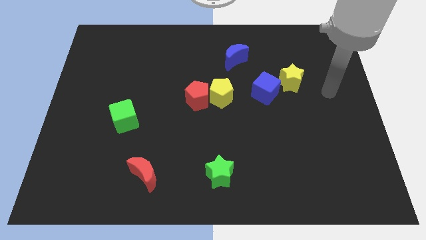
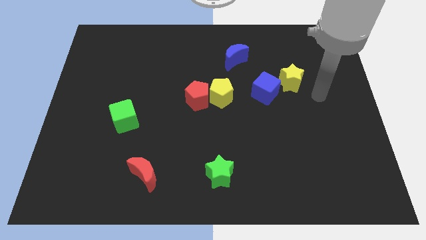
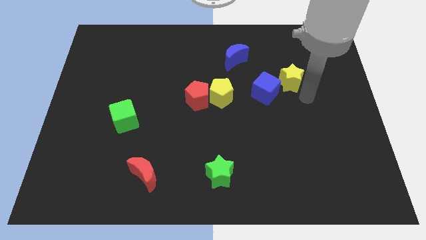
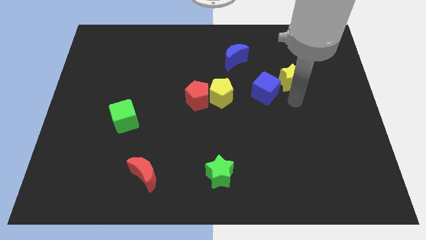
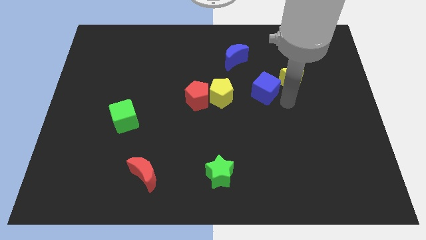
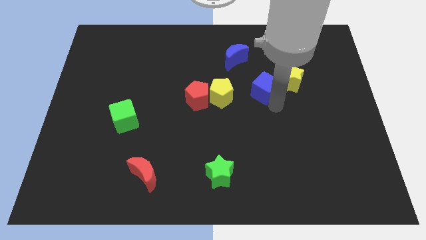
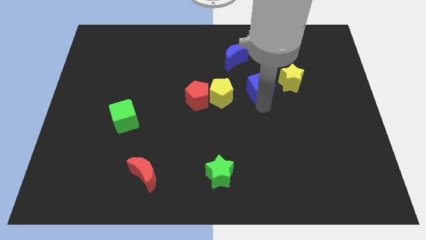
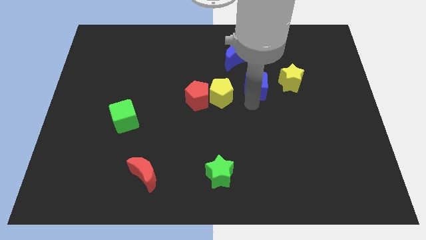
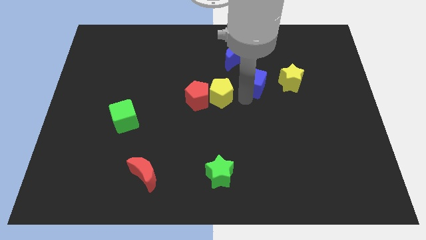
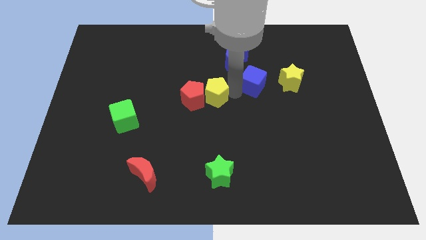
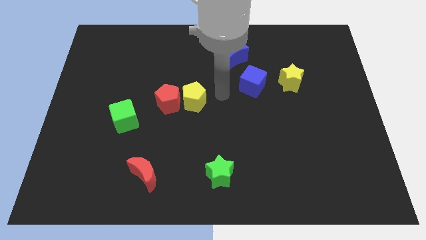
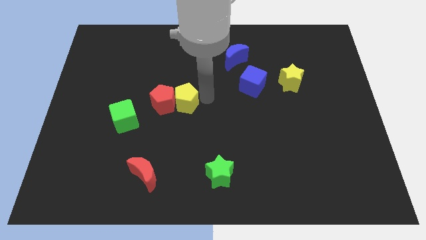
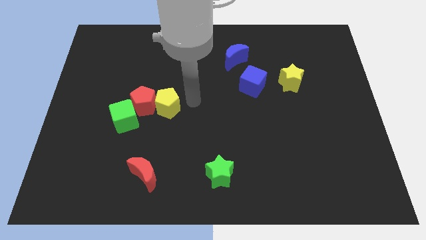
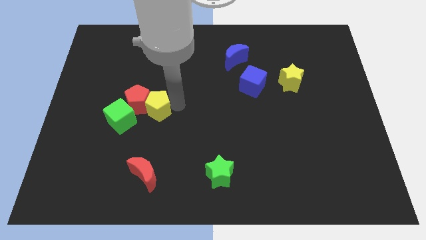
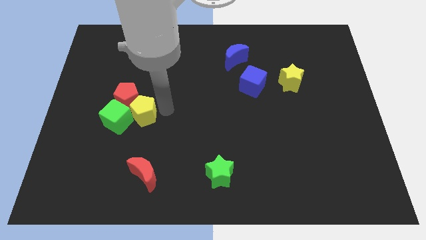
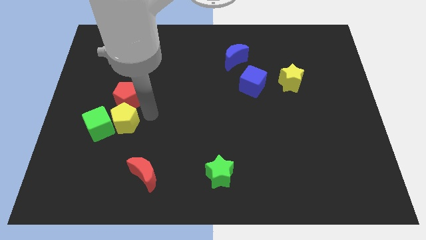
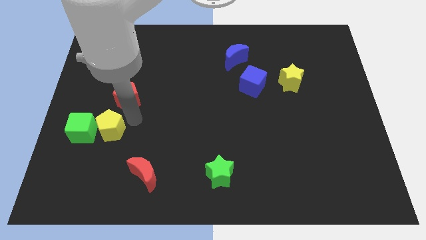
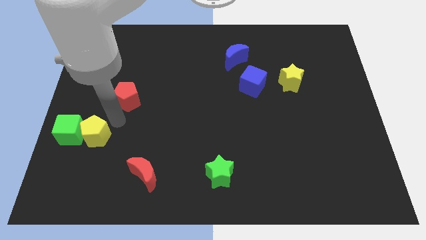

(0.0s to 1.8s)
separate the red pentagon from the yellow pentagon

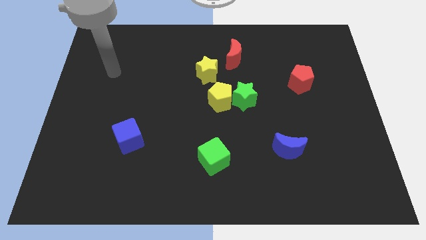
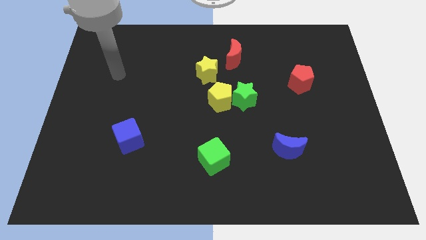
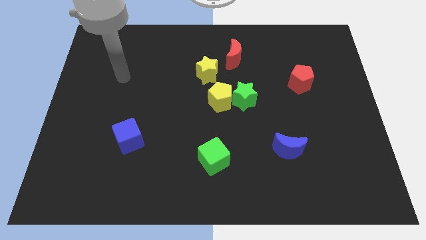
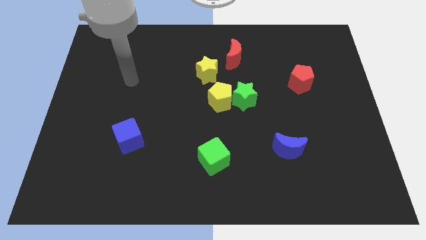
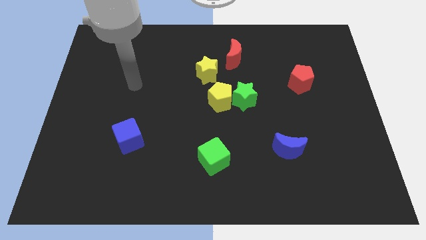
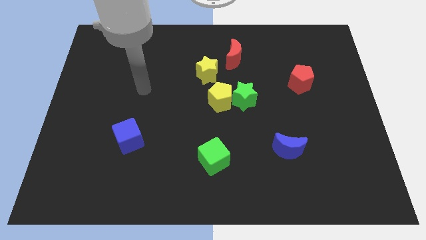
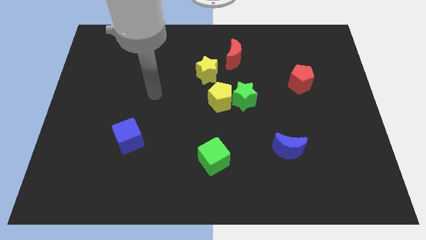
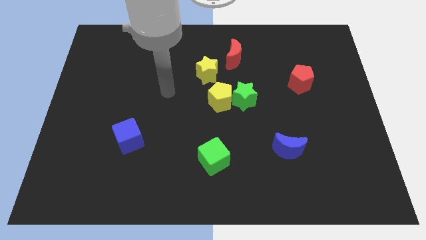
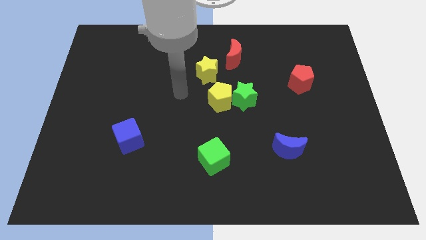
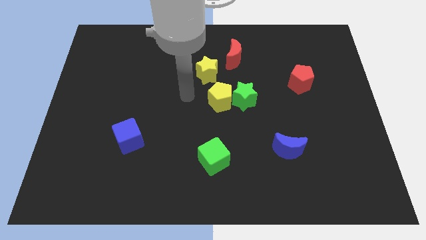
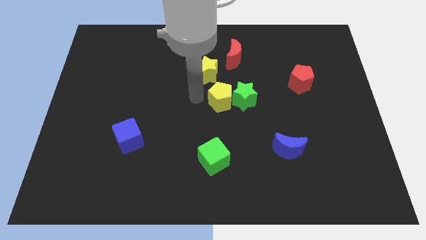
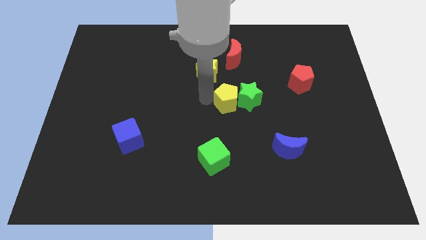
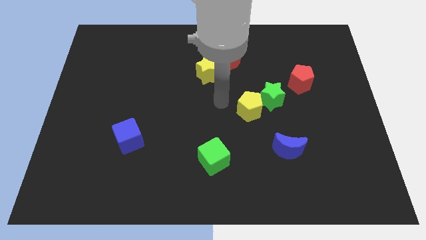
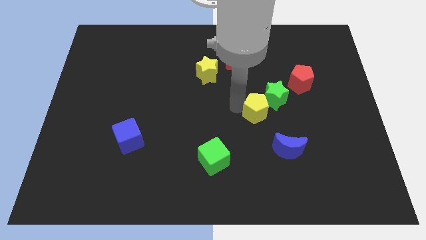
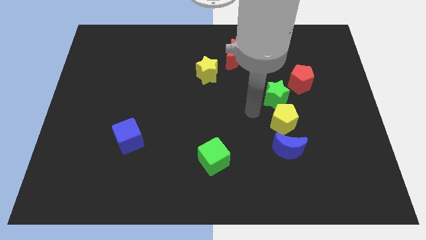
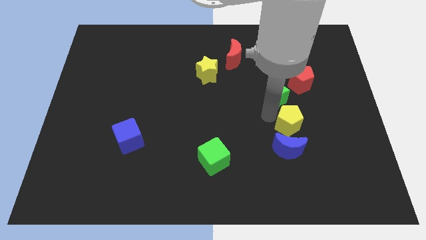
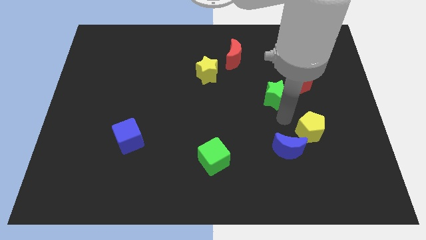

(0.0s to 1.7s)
pull the green star apart from the yellow pentagon

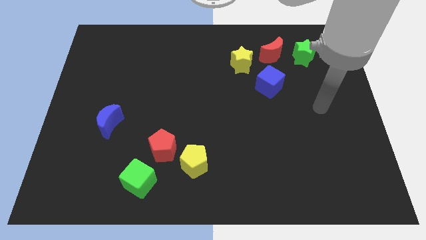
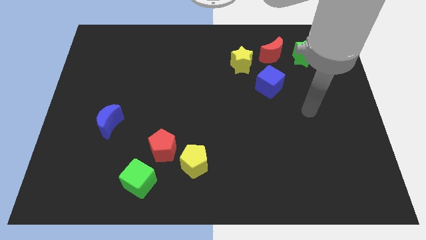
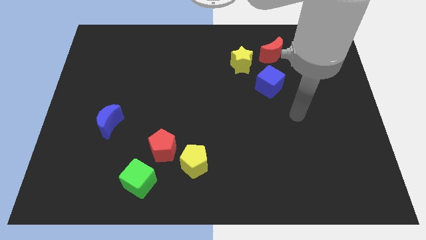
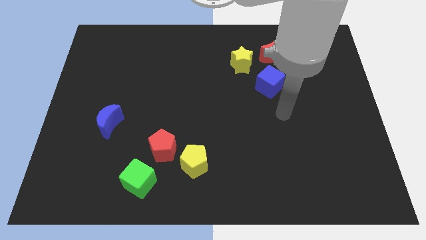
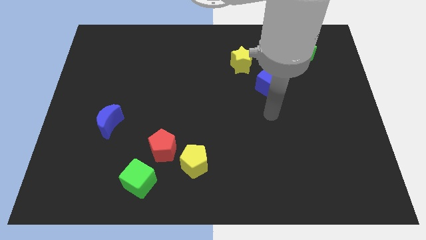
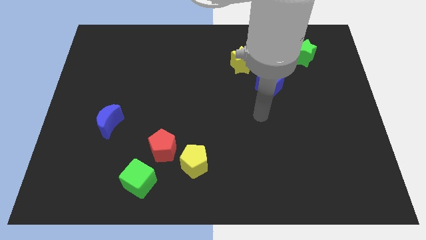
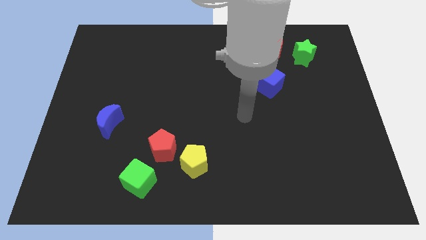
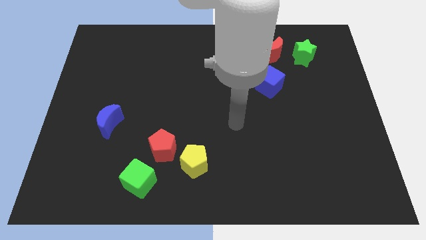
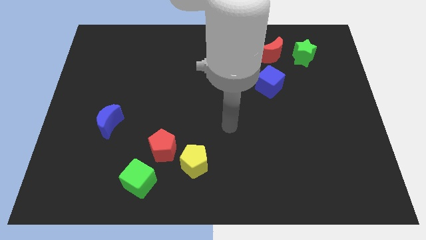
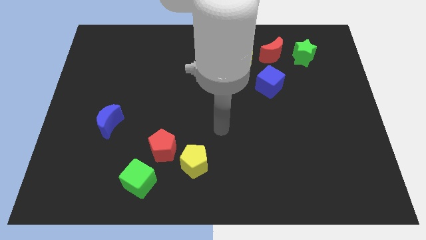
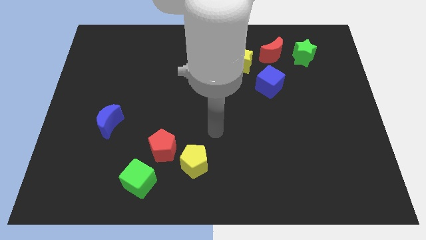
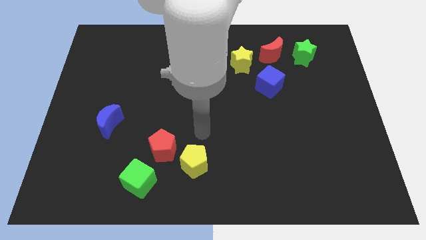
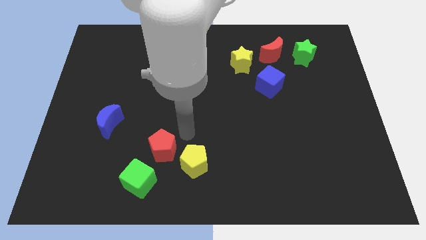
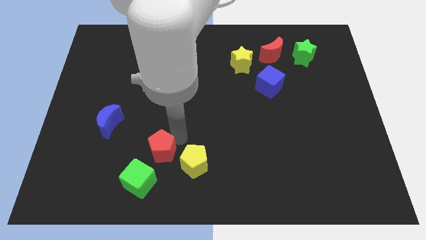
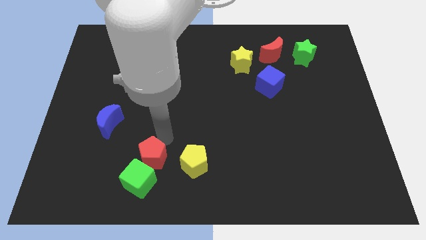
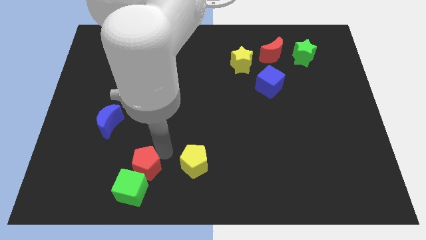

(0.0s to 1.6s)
separate the yellow pentagon from the red pentagon

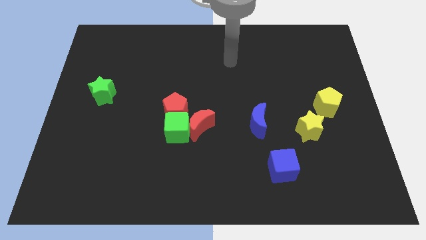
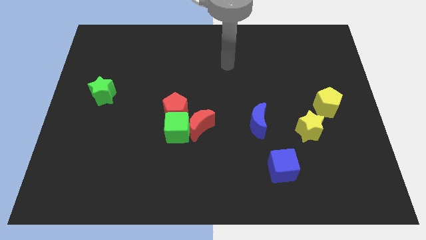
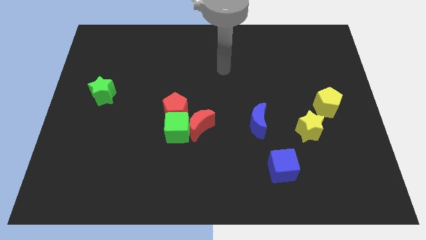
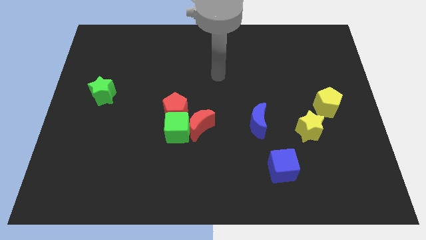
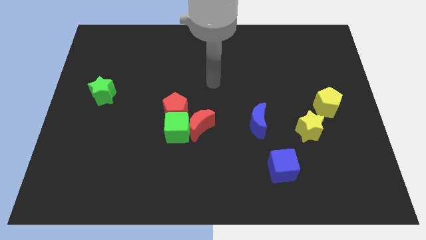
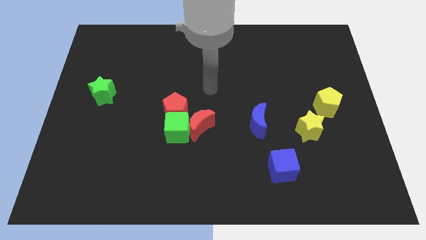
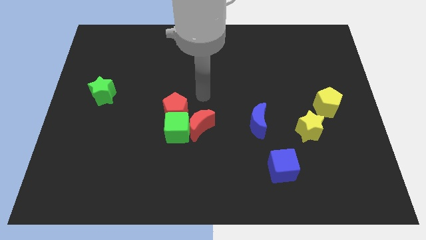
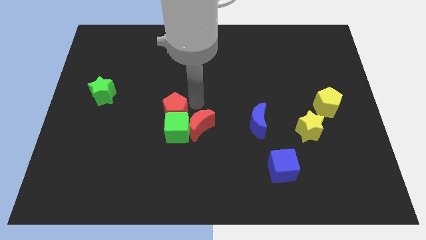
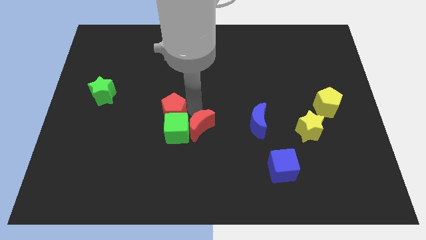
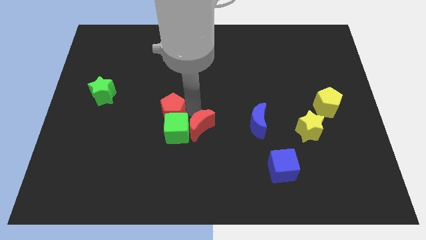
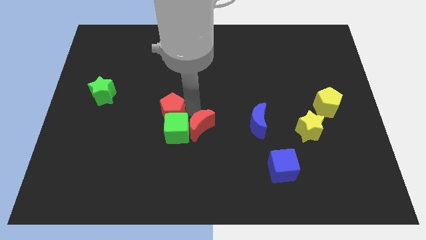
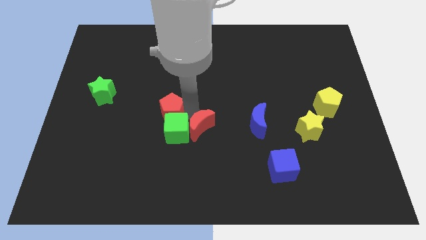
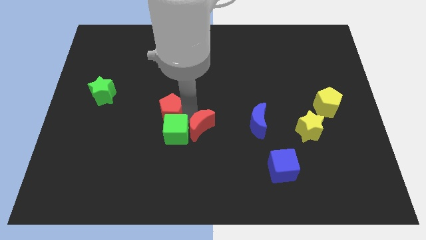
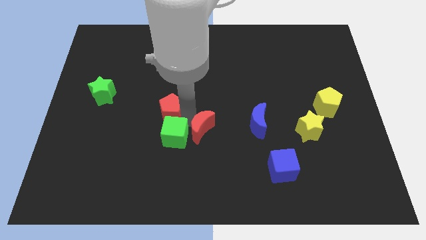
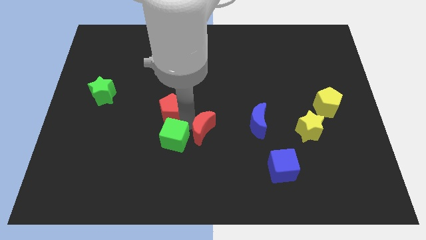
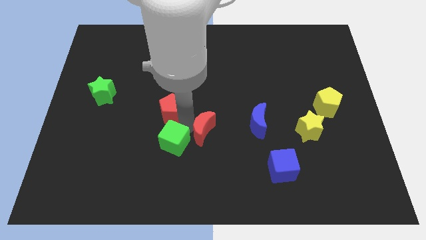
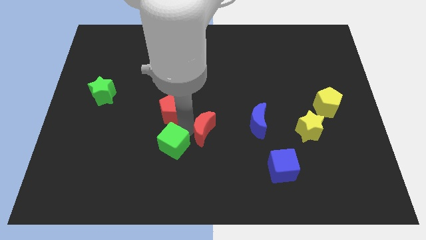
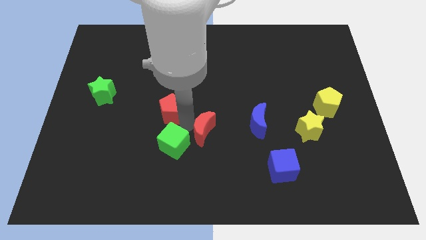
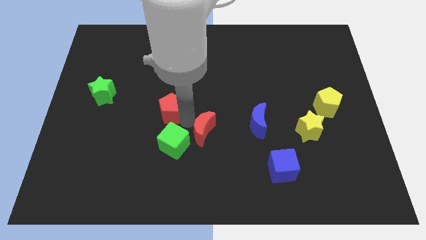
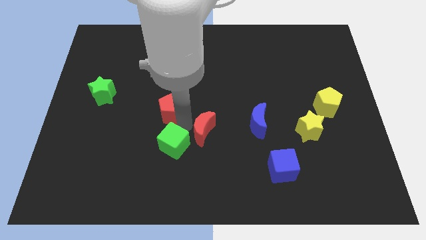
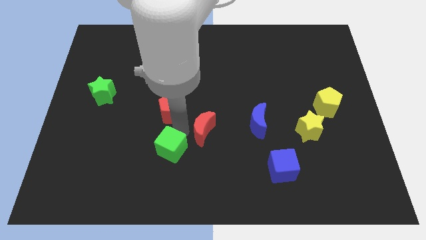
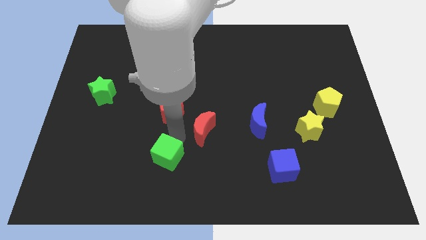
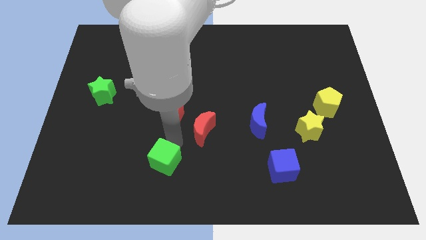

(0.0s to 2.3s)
pull the green cube apart from the red moon and red pentagon

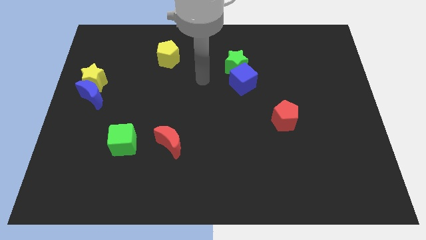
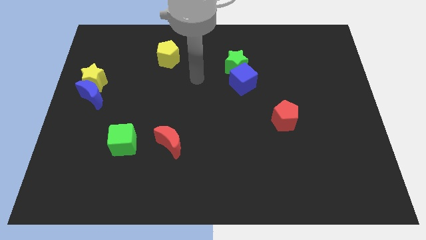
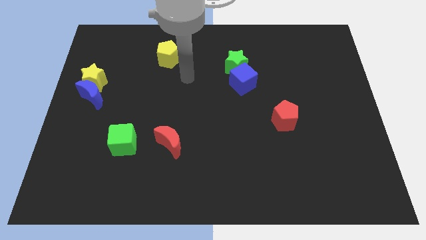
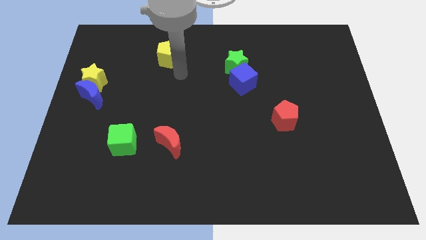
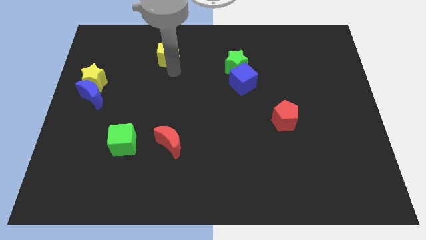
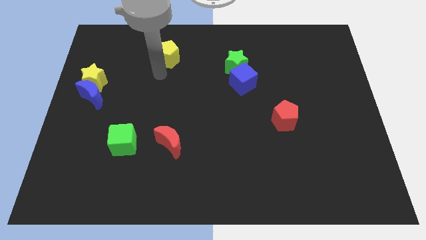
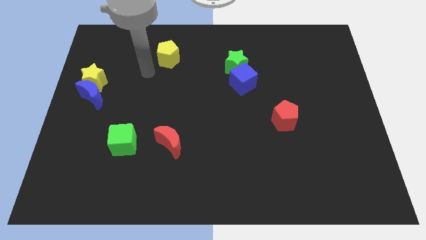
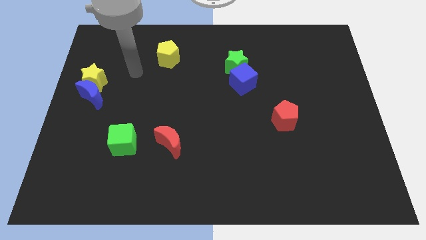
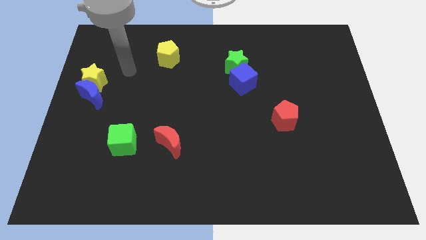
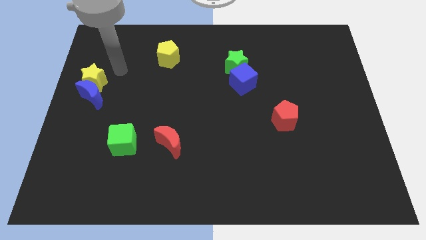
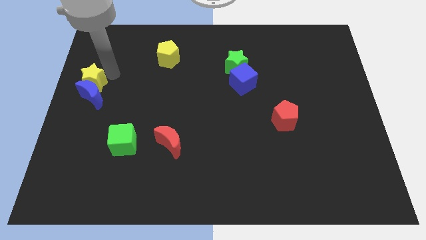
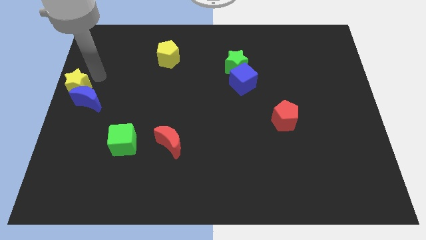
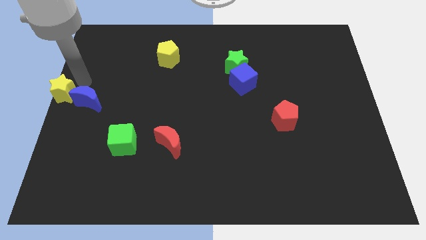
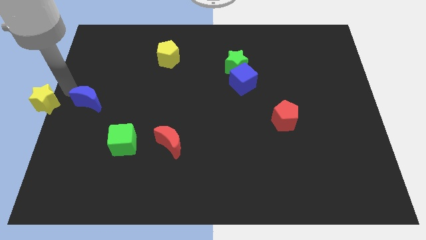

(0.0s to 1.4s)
pull the blue moon apart from the yellow star

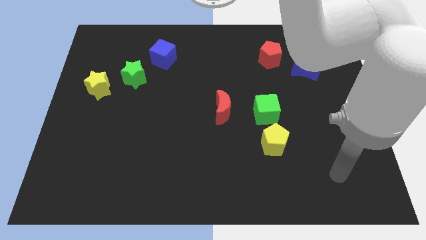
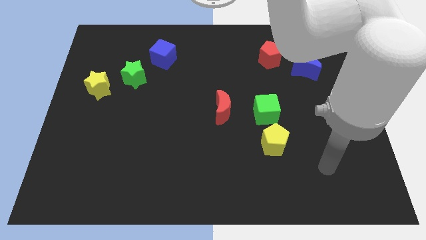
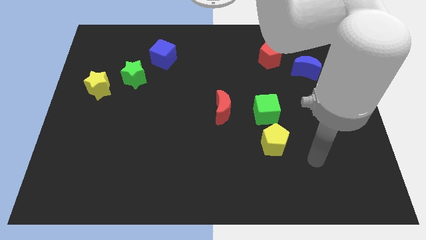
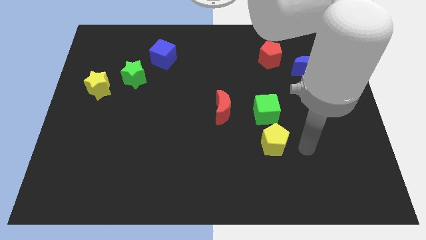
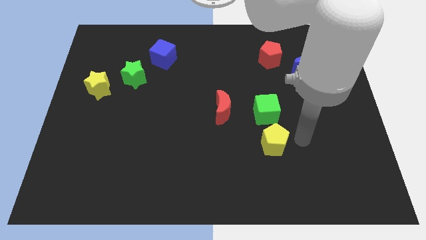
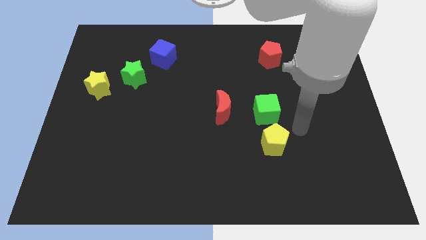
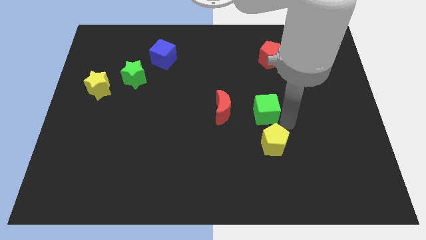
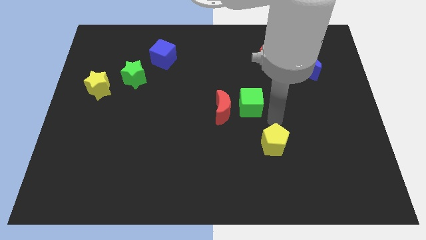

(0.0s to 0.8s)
separate the yellow pentagon from the green cube
